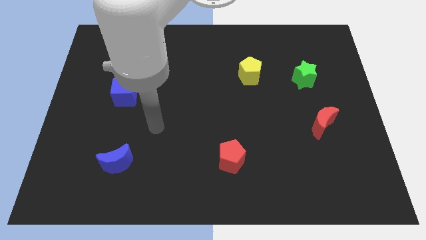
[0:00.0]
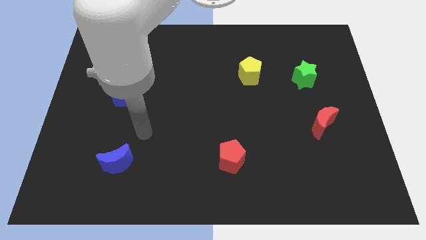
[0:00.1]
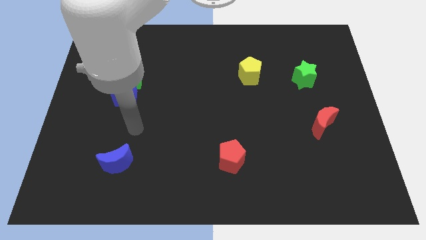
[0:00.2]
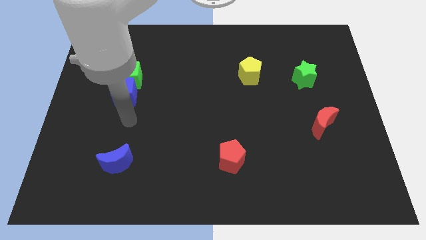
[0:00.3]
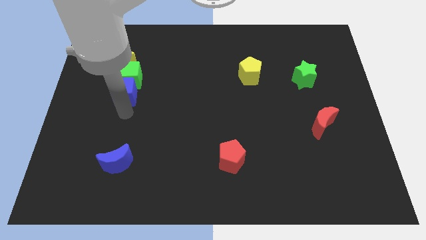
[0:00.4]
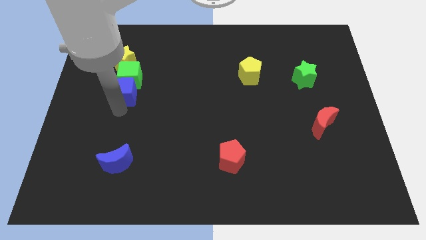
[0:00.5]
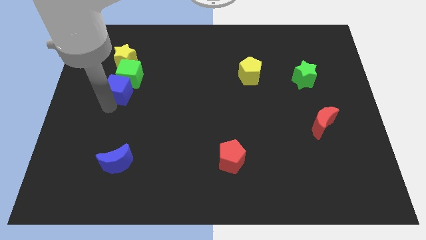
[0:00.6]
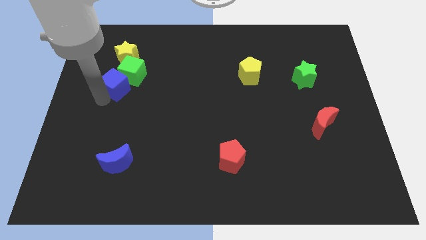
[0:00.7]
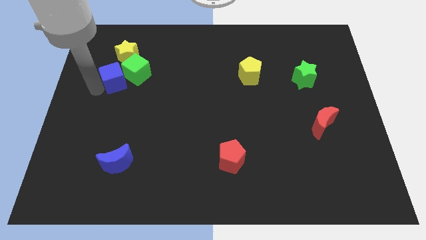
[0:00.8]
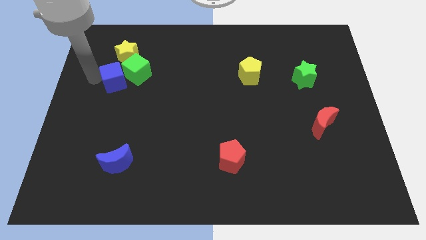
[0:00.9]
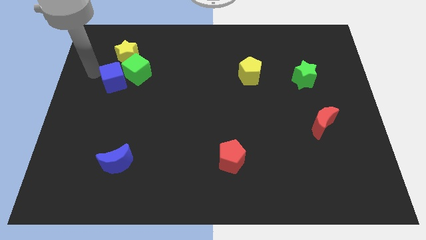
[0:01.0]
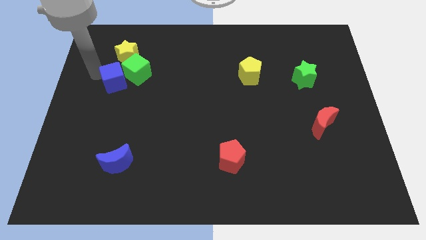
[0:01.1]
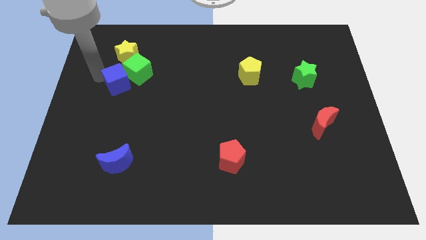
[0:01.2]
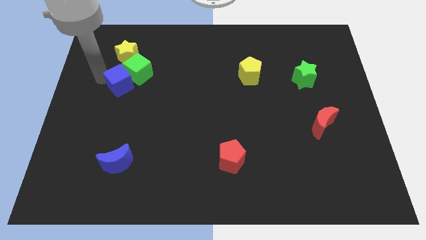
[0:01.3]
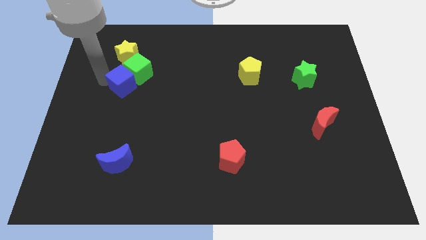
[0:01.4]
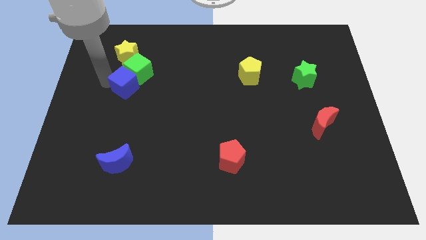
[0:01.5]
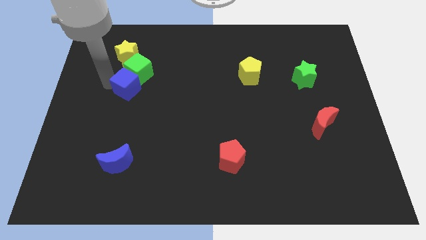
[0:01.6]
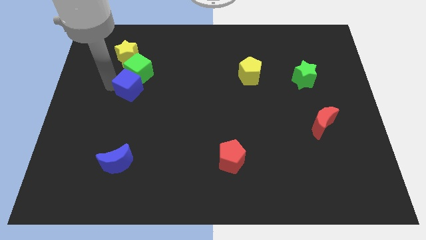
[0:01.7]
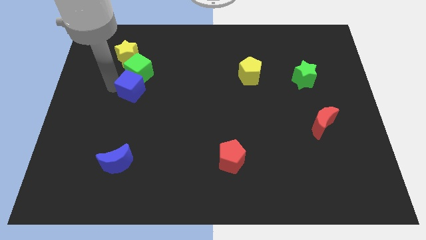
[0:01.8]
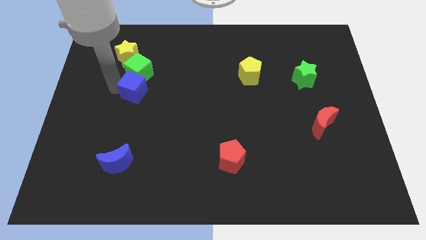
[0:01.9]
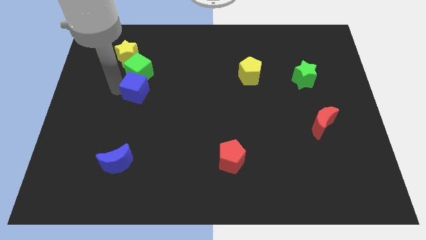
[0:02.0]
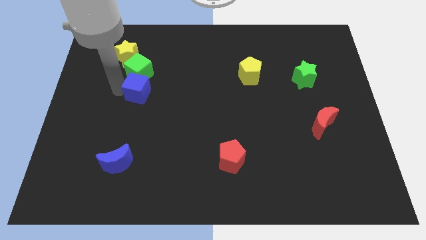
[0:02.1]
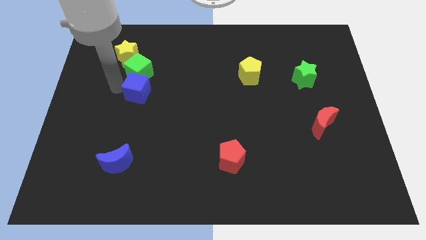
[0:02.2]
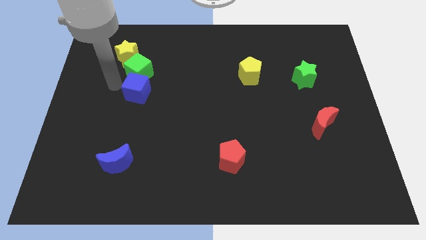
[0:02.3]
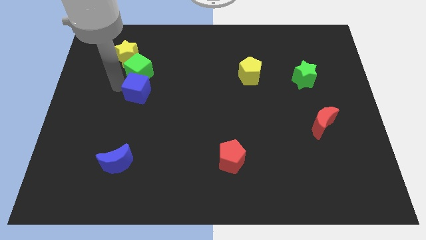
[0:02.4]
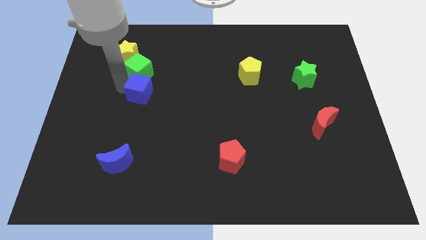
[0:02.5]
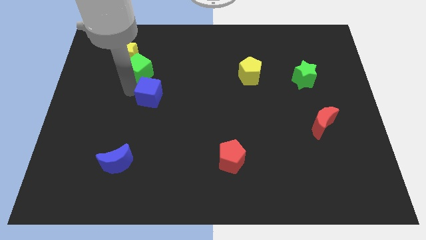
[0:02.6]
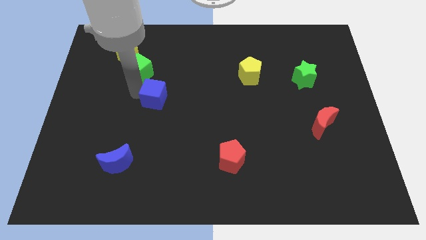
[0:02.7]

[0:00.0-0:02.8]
move the blue cube to the right somewhat

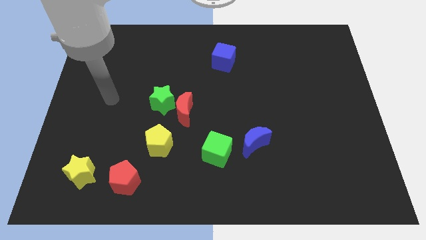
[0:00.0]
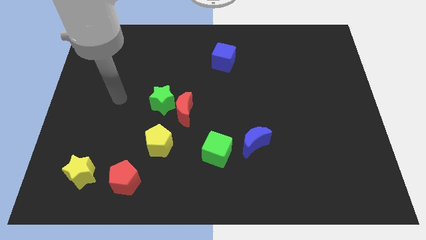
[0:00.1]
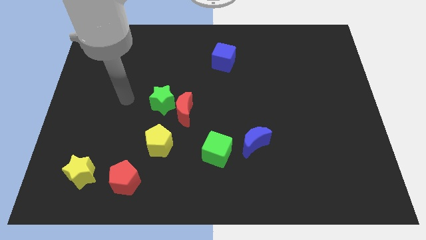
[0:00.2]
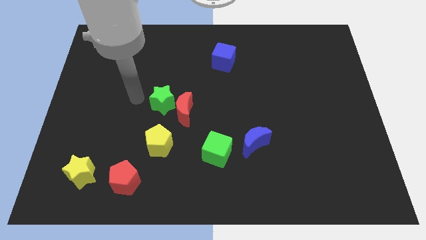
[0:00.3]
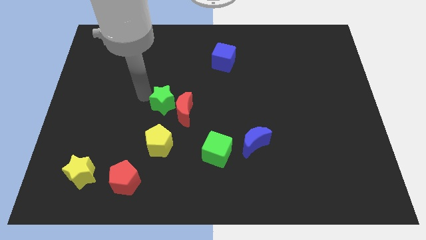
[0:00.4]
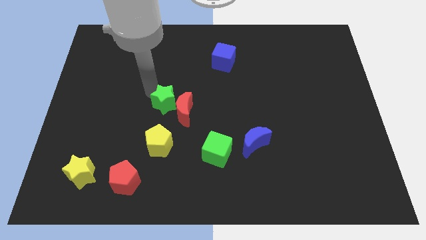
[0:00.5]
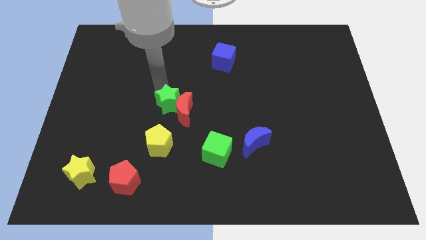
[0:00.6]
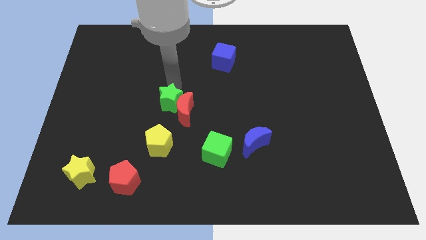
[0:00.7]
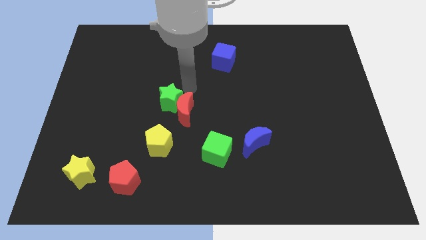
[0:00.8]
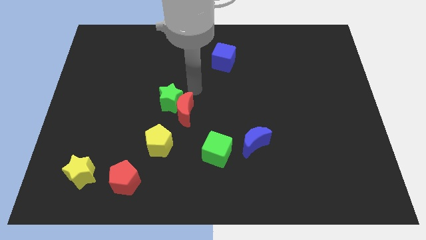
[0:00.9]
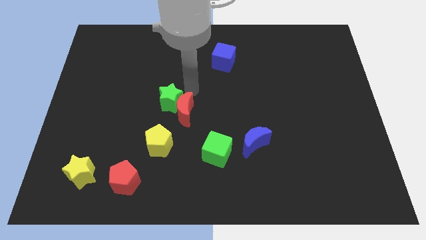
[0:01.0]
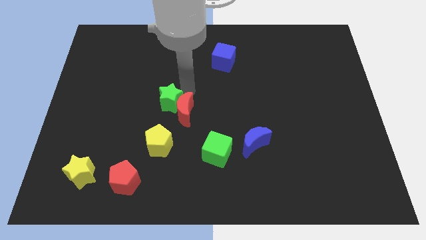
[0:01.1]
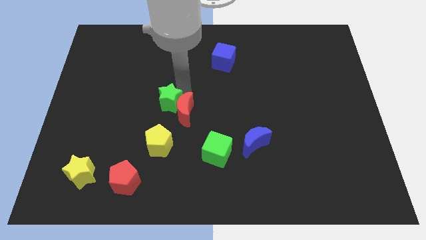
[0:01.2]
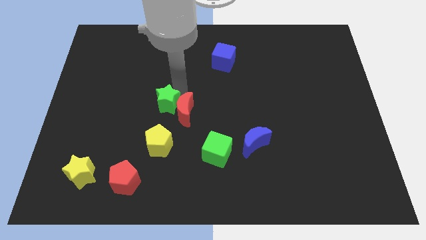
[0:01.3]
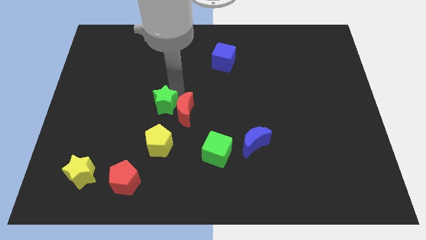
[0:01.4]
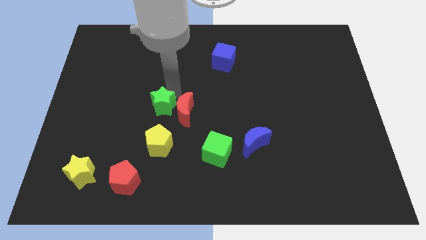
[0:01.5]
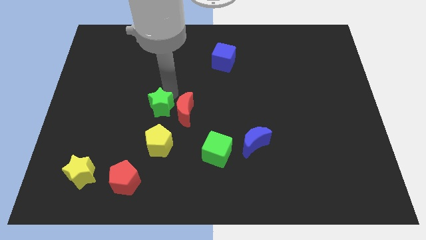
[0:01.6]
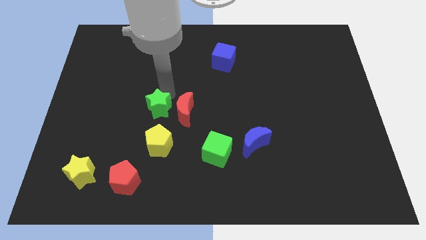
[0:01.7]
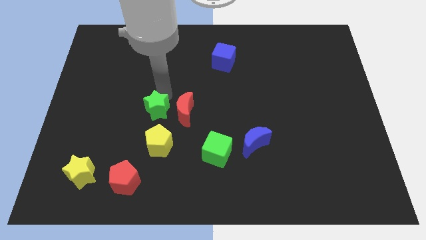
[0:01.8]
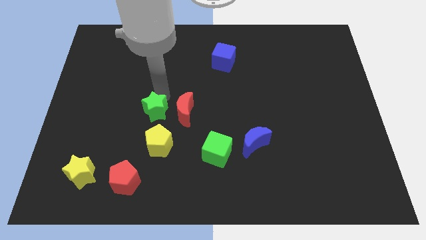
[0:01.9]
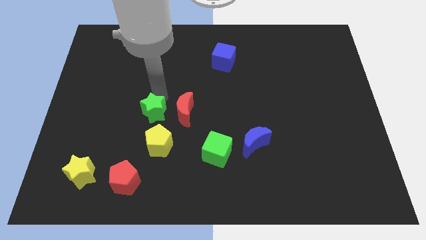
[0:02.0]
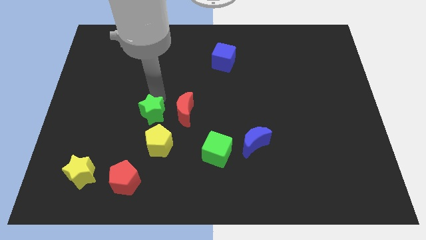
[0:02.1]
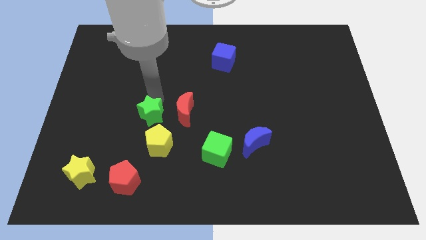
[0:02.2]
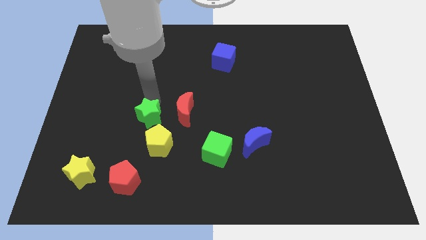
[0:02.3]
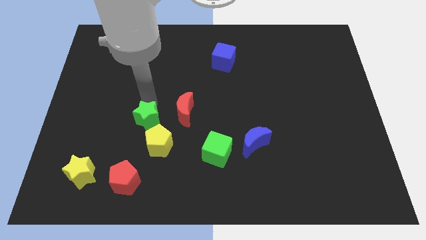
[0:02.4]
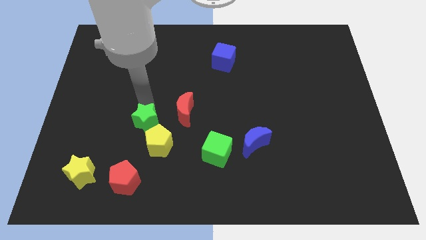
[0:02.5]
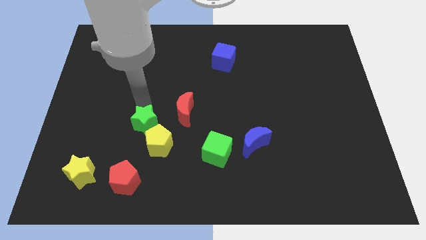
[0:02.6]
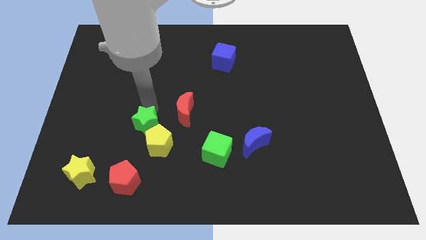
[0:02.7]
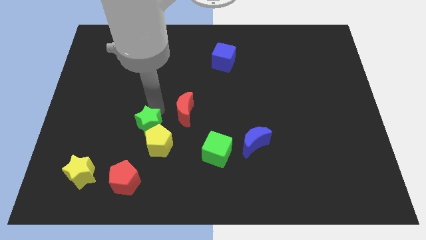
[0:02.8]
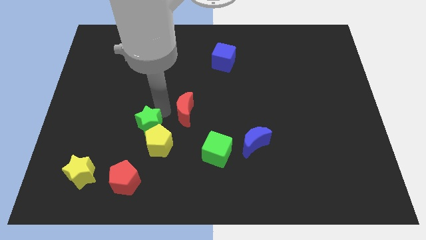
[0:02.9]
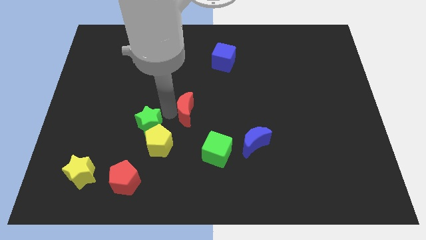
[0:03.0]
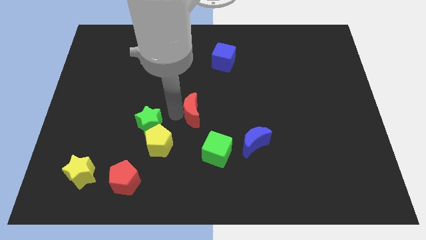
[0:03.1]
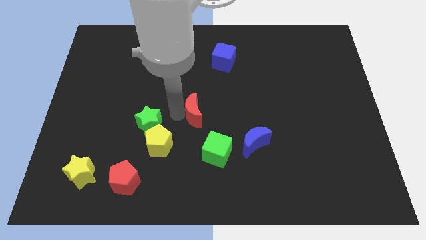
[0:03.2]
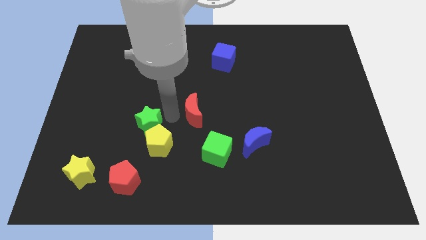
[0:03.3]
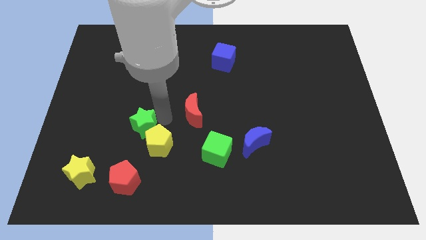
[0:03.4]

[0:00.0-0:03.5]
move the green star slightly down and to the left diagonally

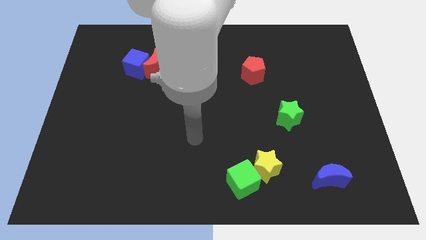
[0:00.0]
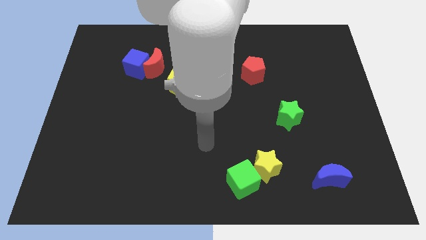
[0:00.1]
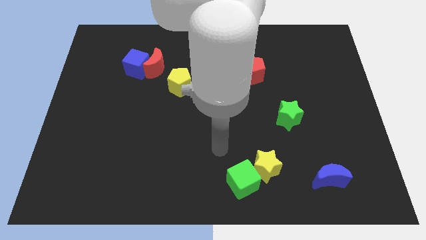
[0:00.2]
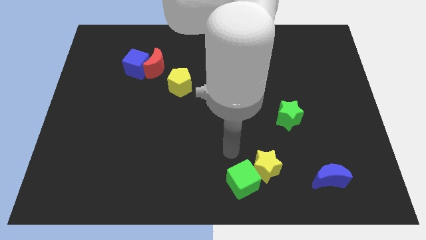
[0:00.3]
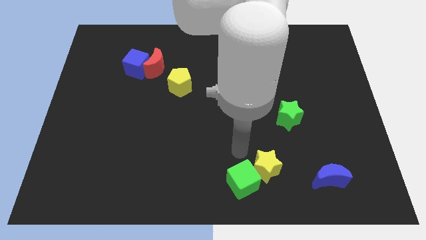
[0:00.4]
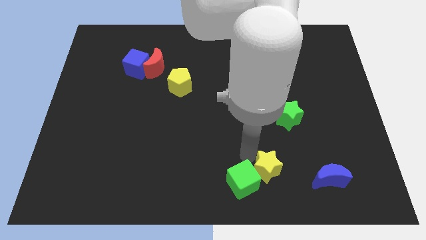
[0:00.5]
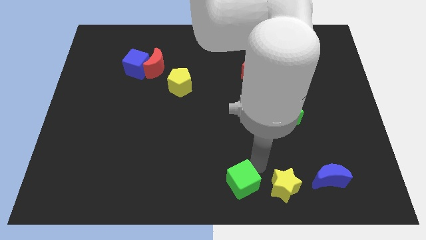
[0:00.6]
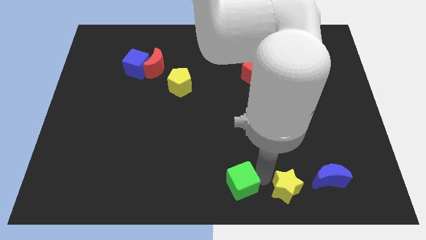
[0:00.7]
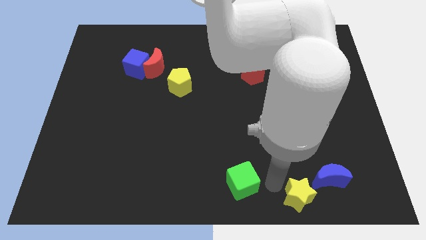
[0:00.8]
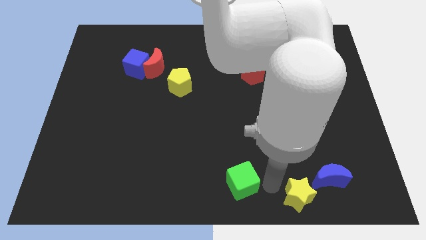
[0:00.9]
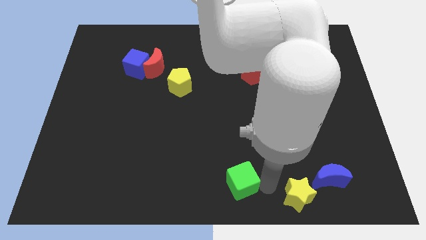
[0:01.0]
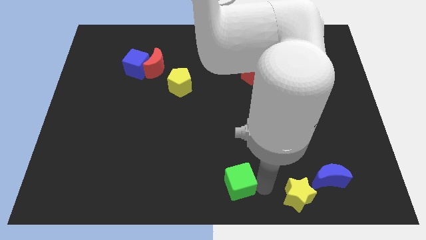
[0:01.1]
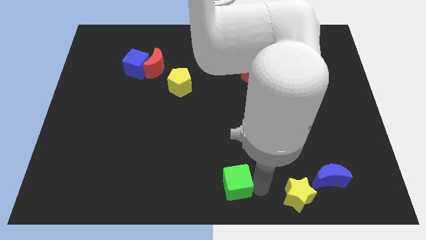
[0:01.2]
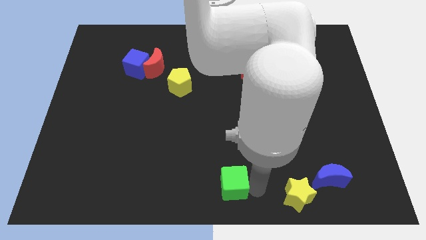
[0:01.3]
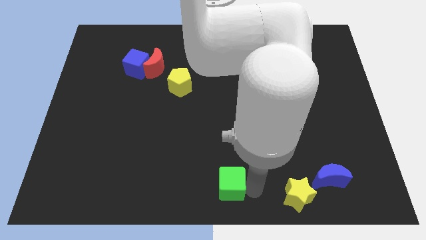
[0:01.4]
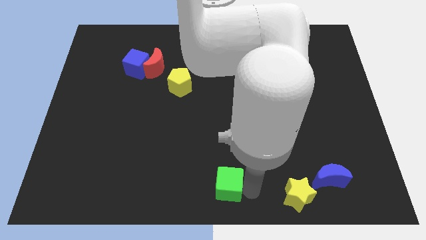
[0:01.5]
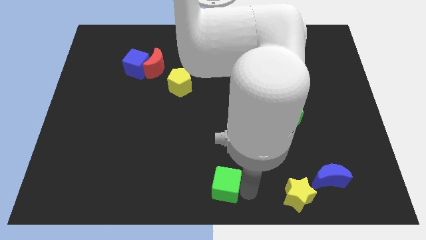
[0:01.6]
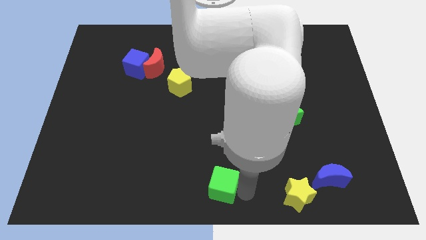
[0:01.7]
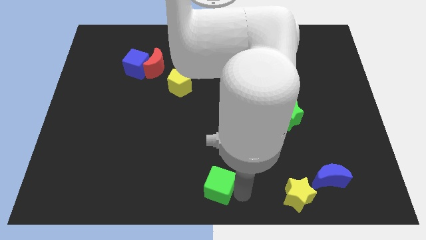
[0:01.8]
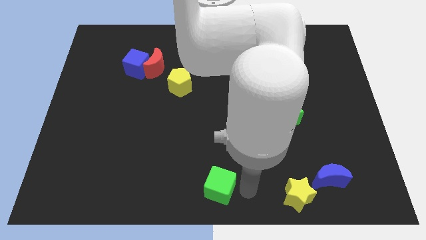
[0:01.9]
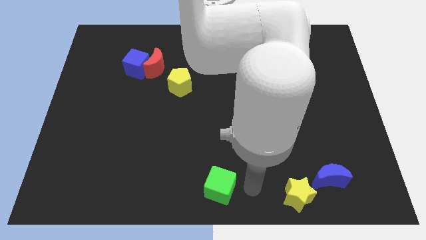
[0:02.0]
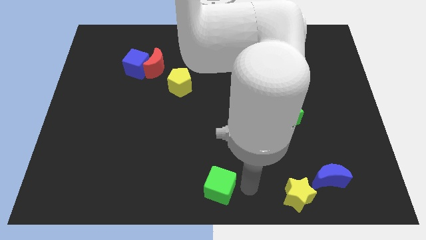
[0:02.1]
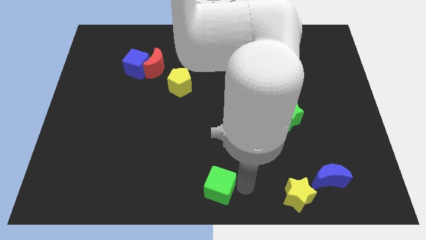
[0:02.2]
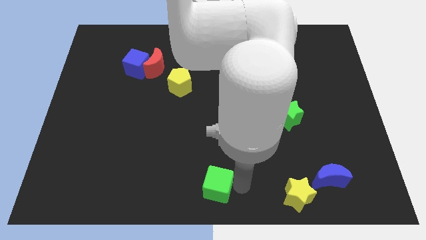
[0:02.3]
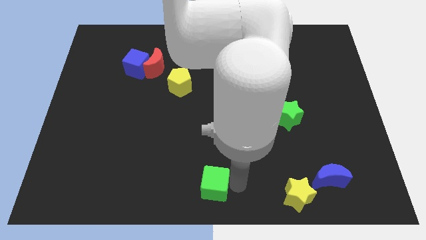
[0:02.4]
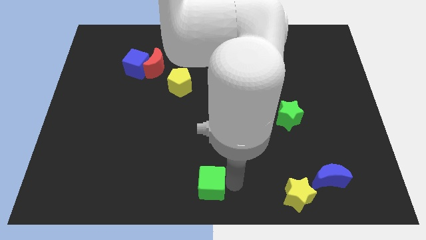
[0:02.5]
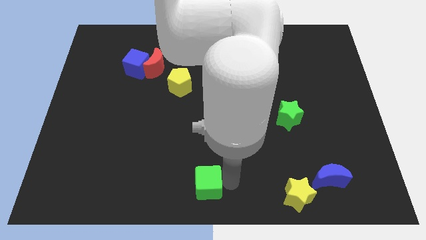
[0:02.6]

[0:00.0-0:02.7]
move the green cube to the left somewhat
